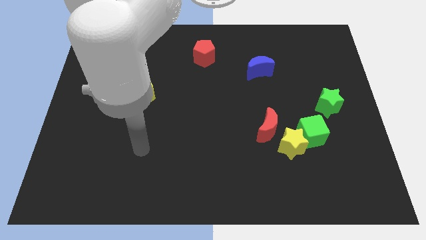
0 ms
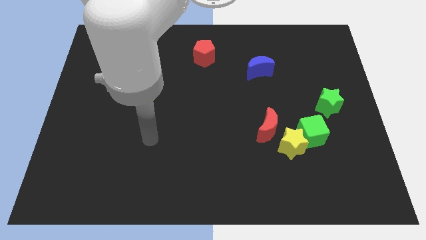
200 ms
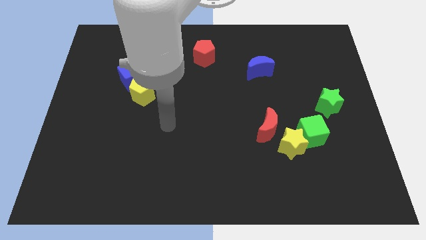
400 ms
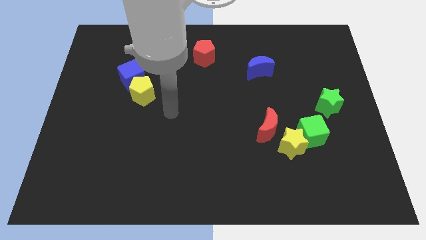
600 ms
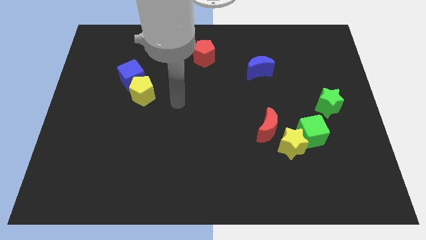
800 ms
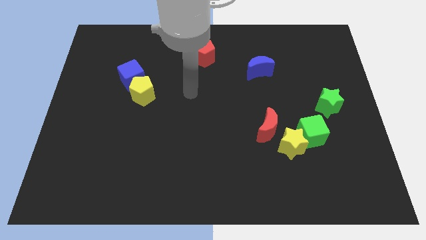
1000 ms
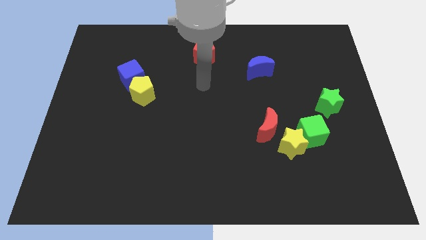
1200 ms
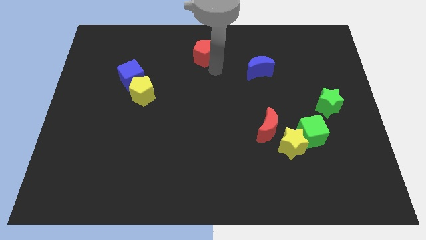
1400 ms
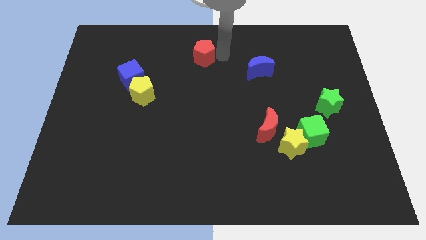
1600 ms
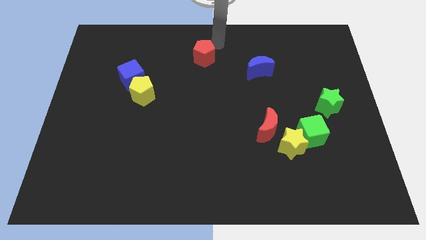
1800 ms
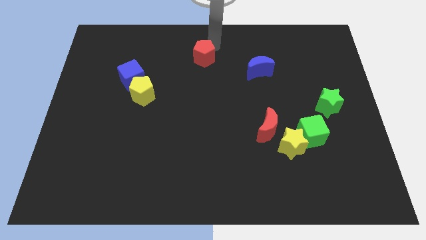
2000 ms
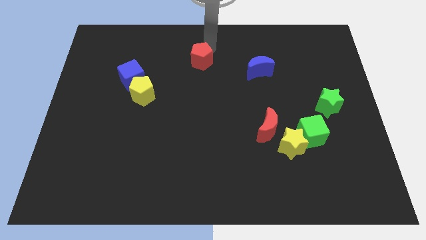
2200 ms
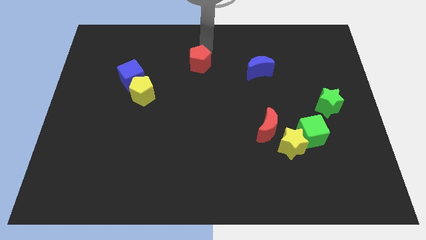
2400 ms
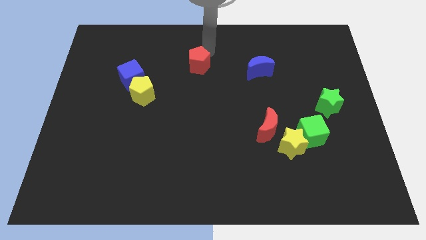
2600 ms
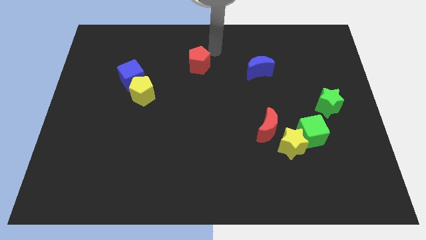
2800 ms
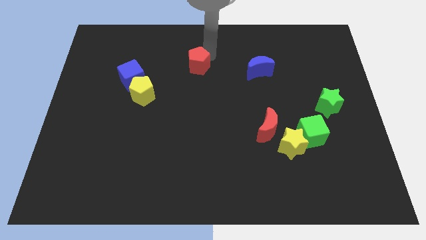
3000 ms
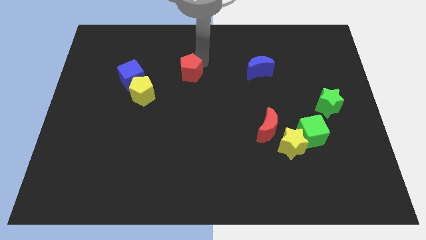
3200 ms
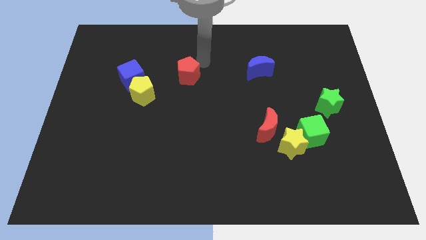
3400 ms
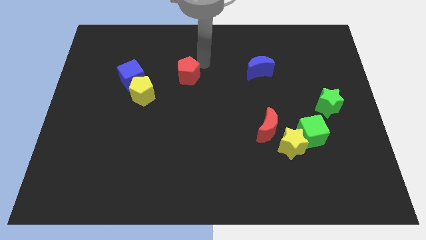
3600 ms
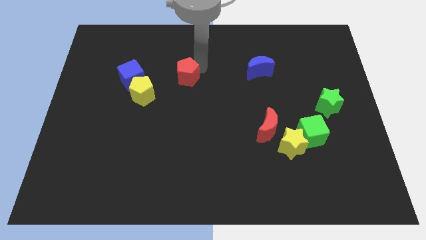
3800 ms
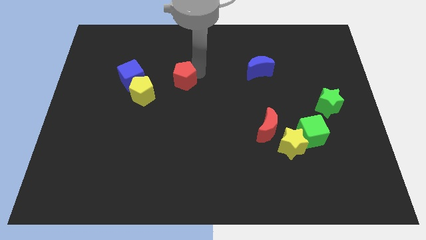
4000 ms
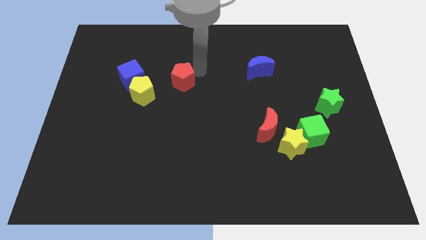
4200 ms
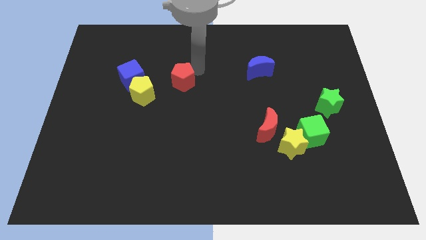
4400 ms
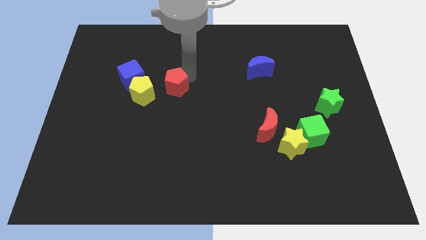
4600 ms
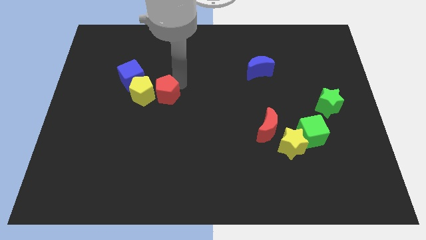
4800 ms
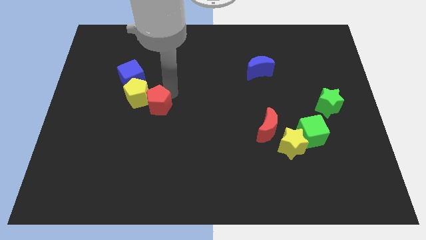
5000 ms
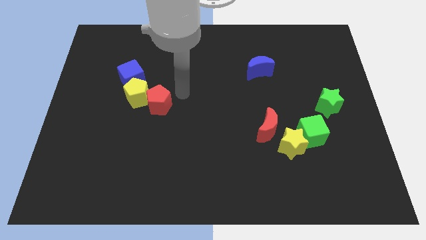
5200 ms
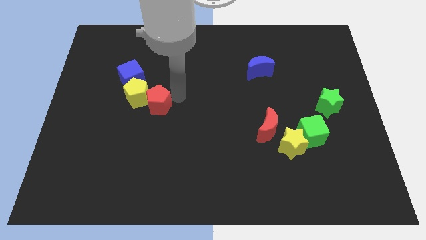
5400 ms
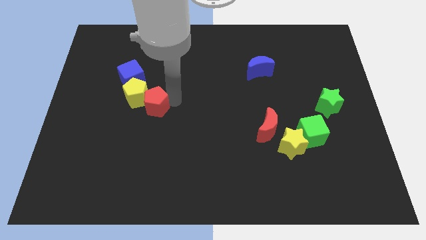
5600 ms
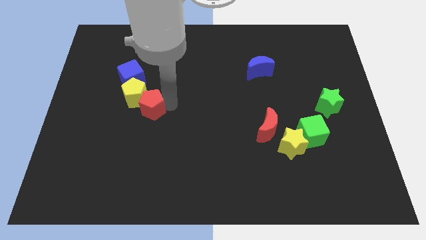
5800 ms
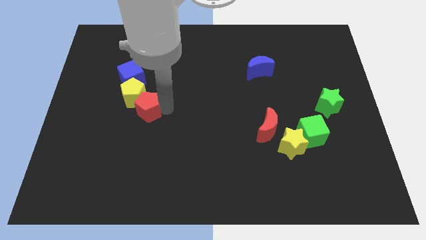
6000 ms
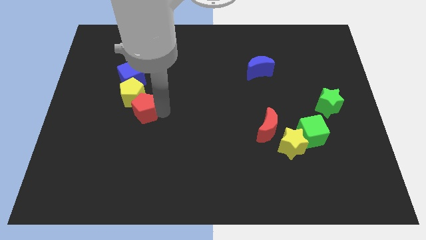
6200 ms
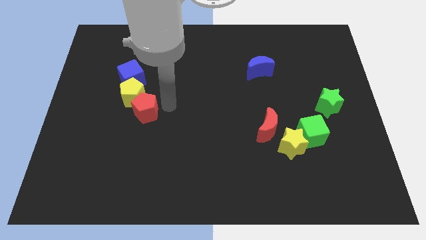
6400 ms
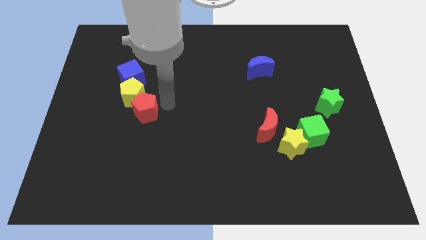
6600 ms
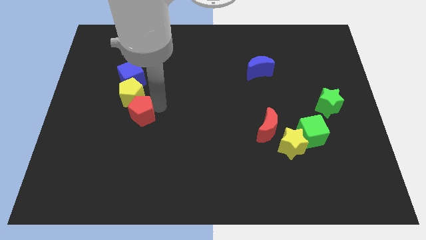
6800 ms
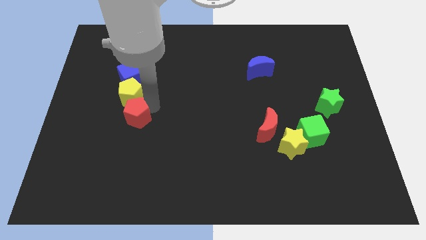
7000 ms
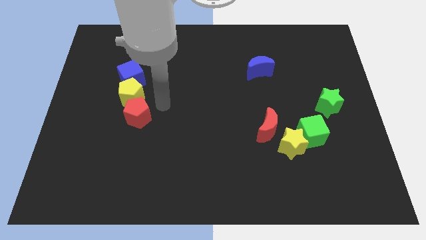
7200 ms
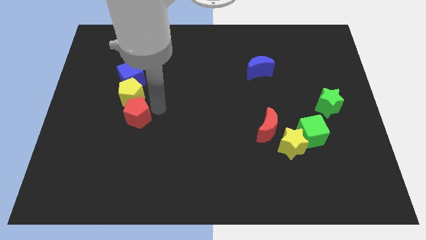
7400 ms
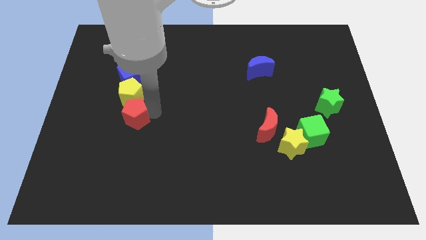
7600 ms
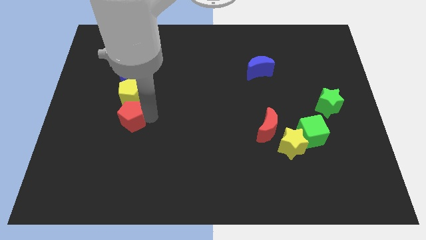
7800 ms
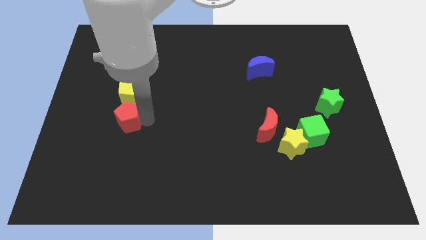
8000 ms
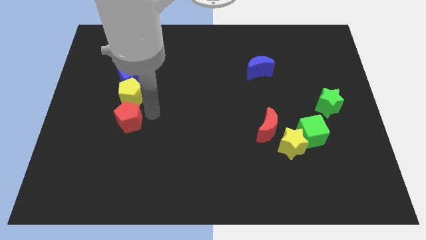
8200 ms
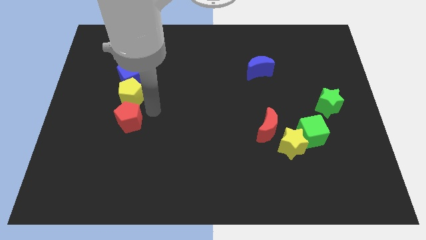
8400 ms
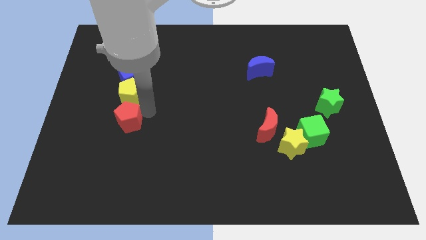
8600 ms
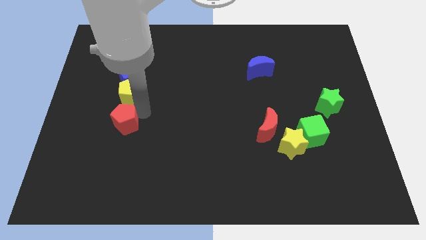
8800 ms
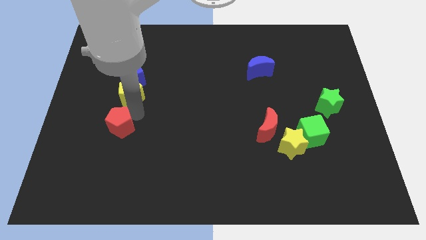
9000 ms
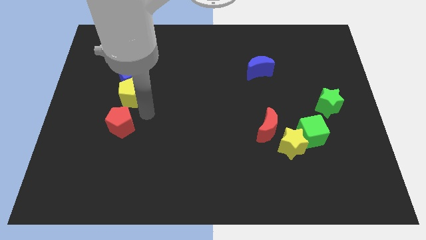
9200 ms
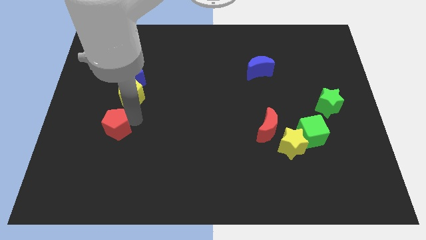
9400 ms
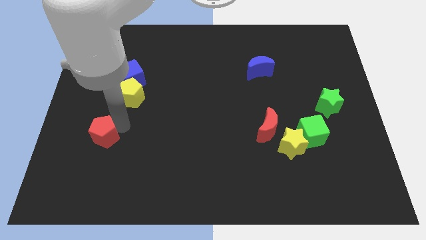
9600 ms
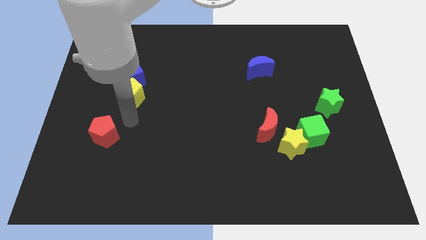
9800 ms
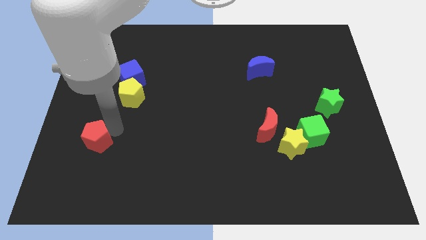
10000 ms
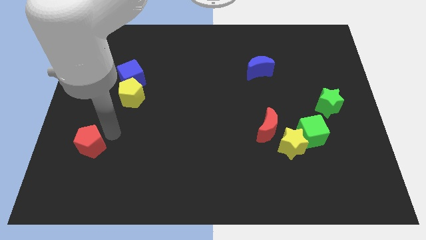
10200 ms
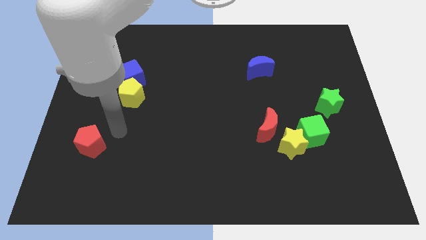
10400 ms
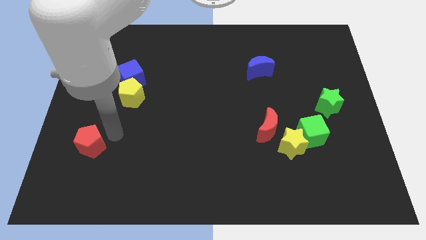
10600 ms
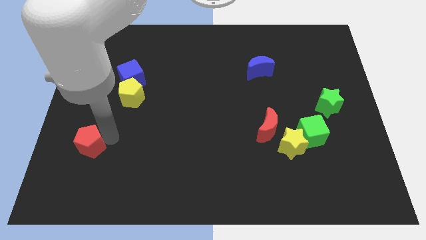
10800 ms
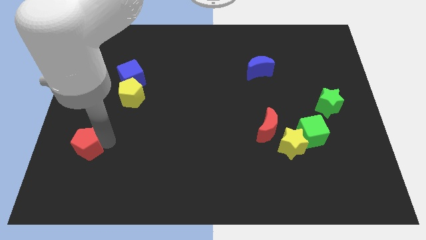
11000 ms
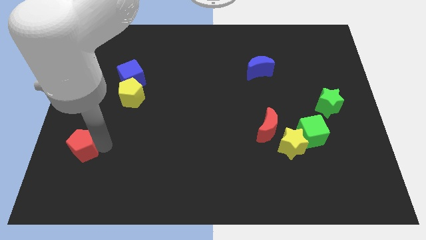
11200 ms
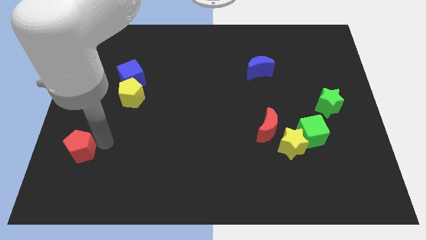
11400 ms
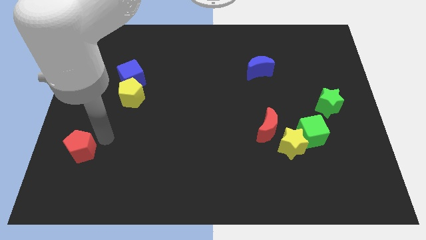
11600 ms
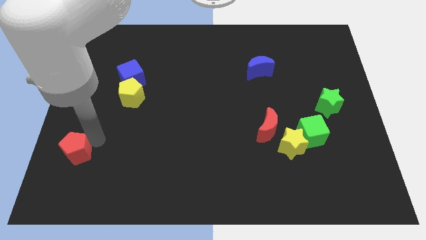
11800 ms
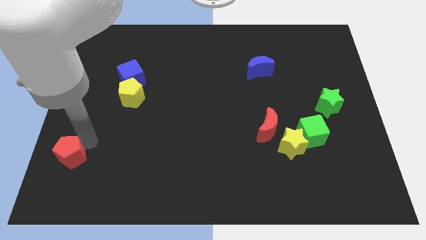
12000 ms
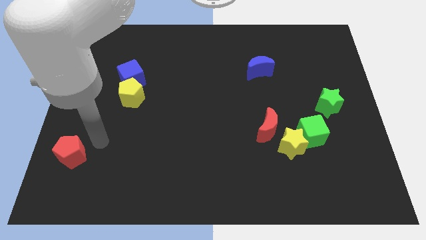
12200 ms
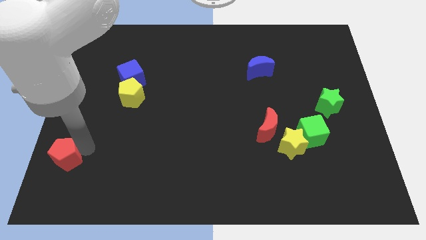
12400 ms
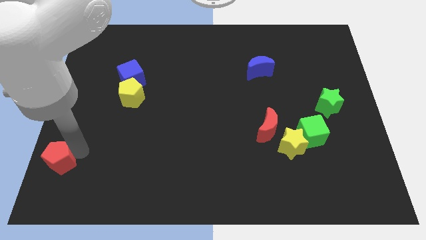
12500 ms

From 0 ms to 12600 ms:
push the red pentagon to the bottom left

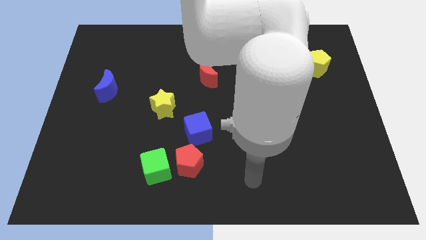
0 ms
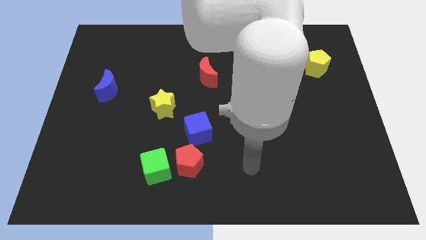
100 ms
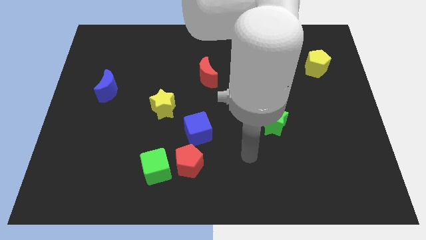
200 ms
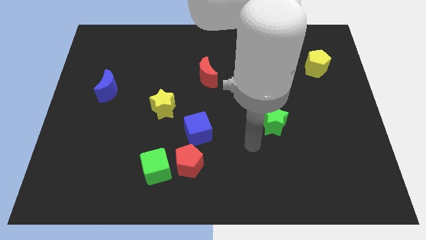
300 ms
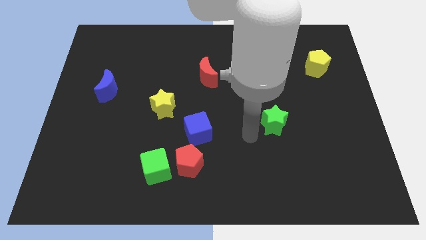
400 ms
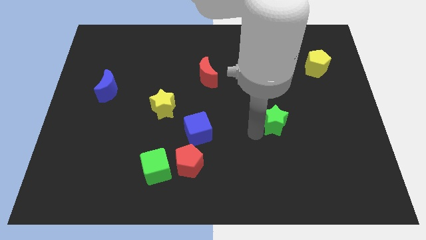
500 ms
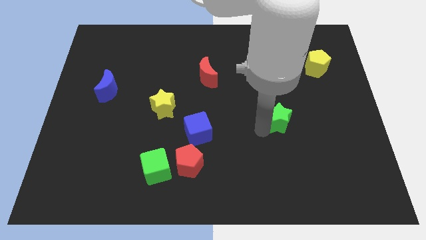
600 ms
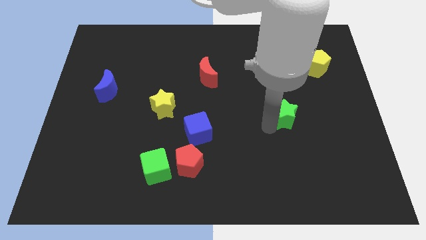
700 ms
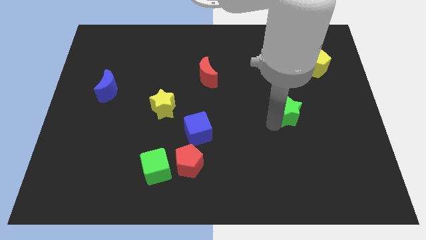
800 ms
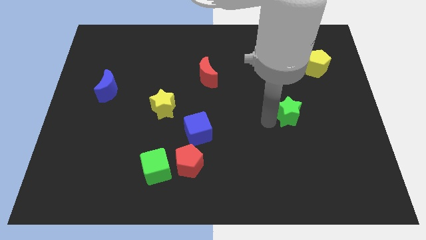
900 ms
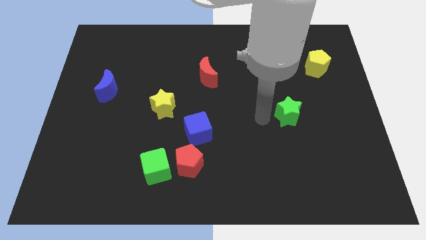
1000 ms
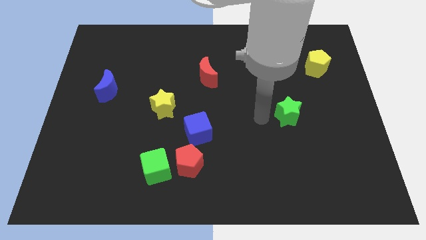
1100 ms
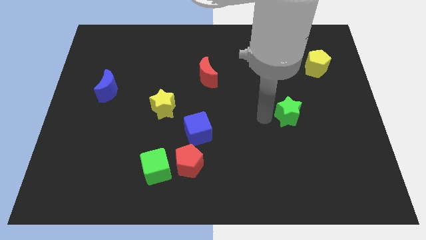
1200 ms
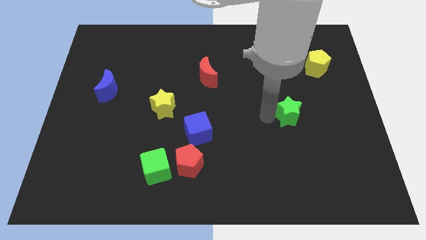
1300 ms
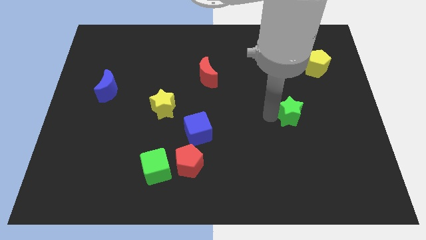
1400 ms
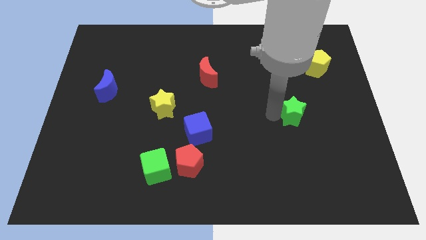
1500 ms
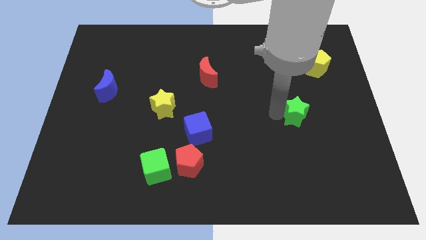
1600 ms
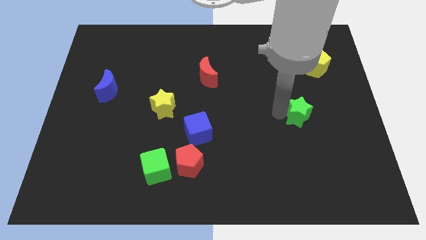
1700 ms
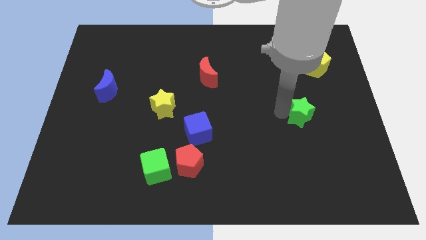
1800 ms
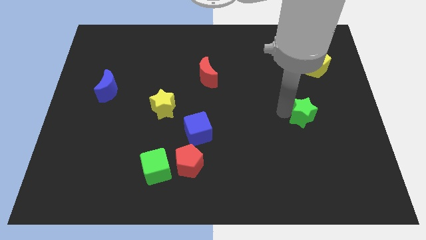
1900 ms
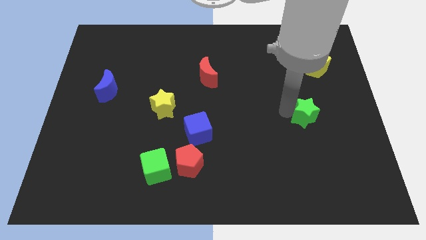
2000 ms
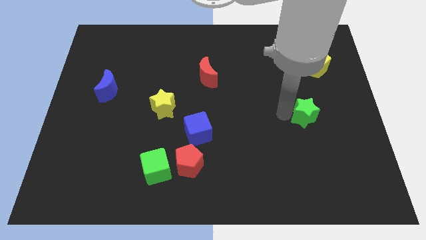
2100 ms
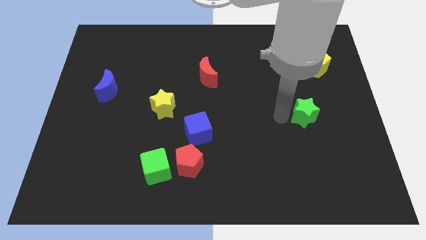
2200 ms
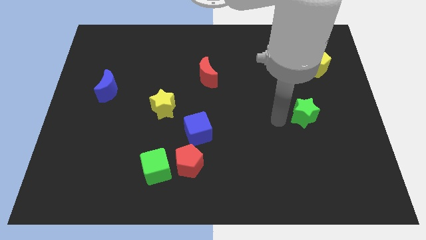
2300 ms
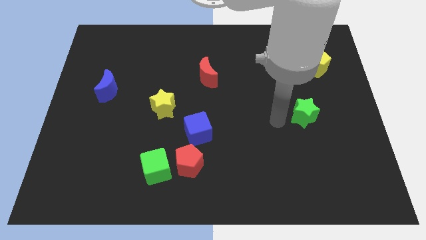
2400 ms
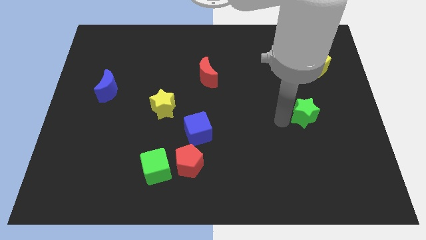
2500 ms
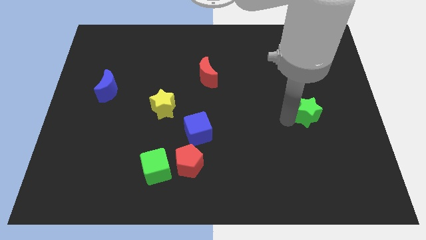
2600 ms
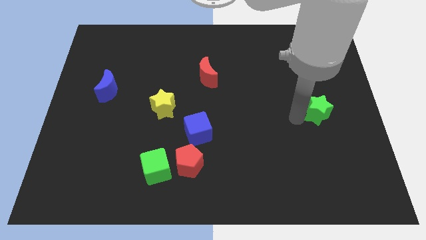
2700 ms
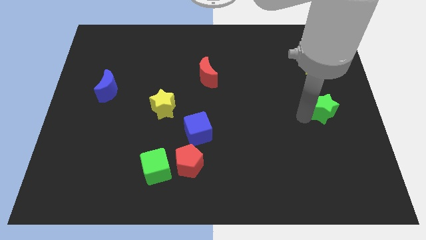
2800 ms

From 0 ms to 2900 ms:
move the green star to the right side of the board
